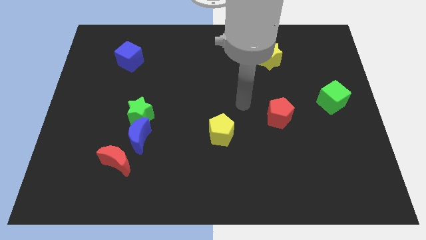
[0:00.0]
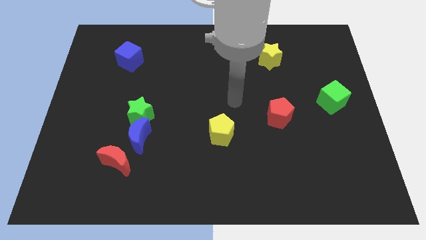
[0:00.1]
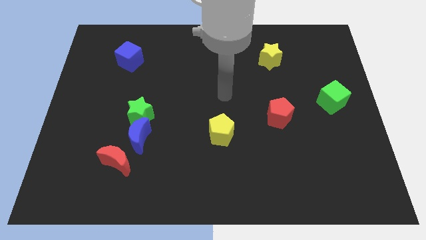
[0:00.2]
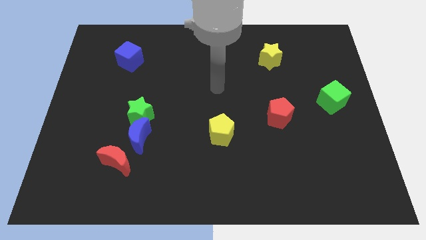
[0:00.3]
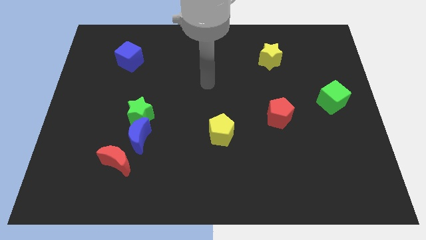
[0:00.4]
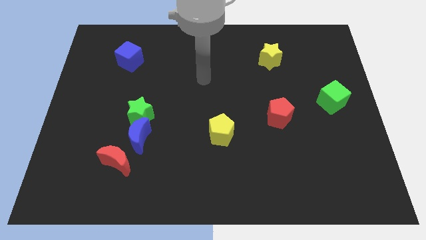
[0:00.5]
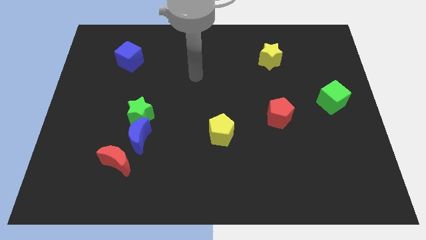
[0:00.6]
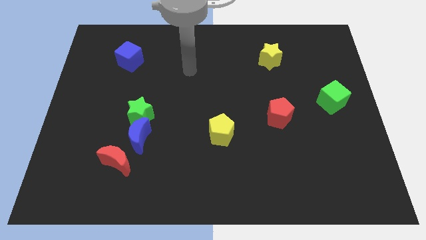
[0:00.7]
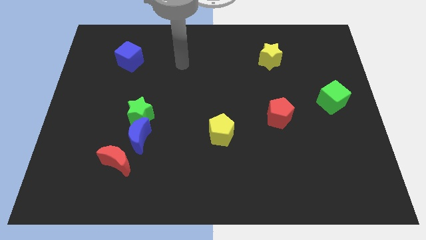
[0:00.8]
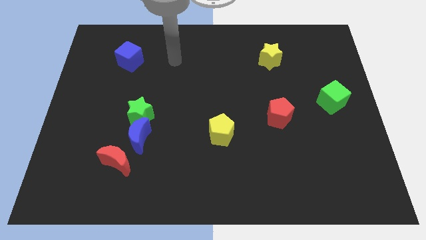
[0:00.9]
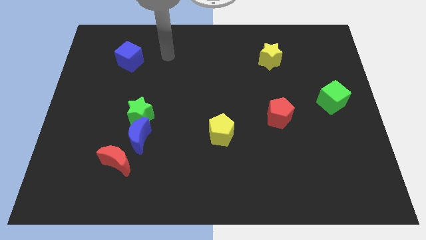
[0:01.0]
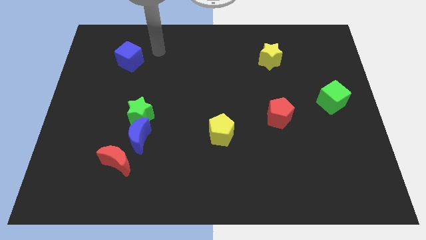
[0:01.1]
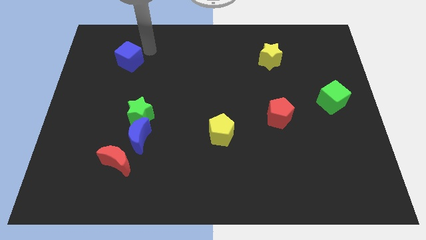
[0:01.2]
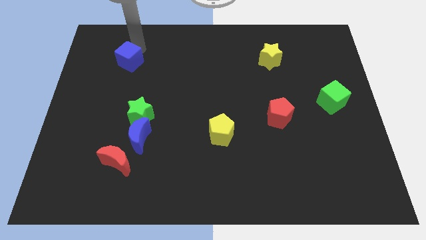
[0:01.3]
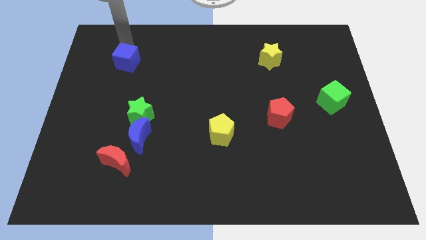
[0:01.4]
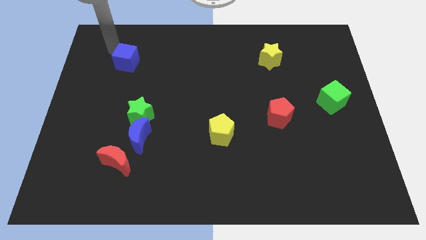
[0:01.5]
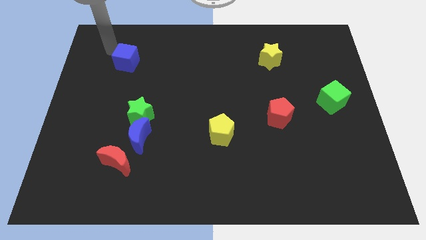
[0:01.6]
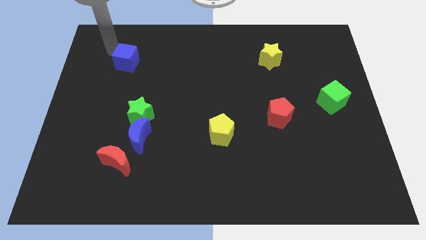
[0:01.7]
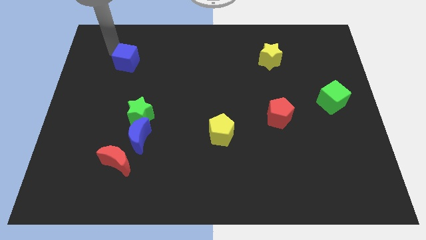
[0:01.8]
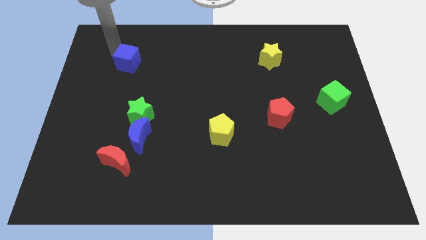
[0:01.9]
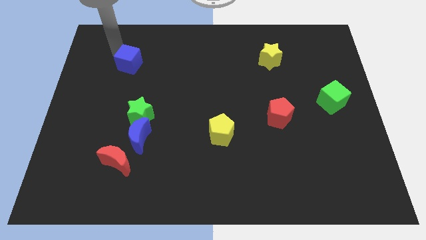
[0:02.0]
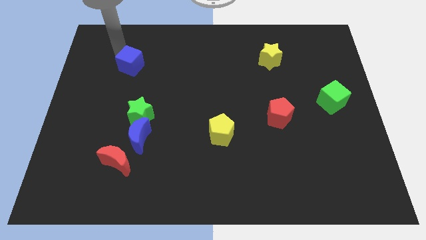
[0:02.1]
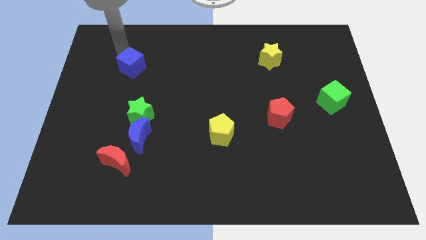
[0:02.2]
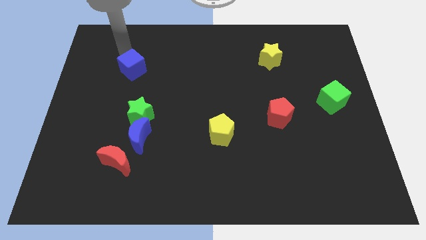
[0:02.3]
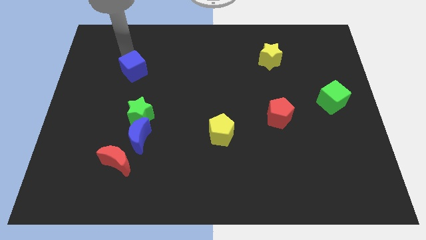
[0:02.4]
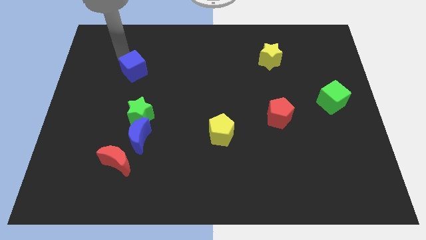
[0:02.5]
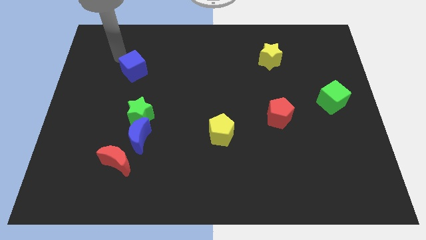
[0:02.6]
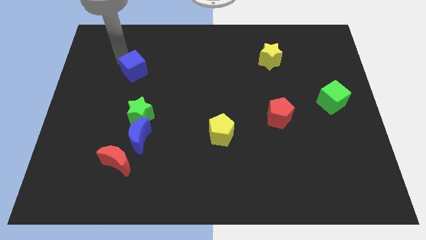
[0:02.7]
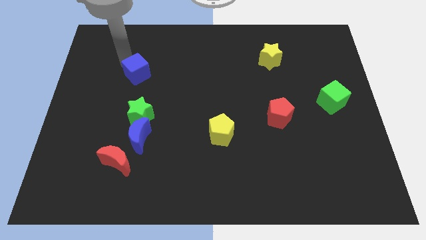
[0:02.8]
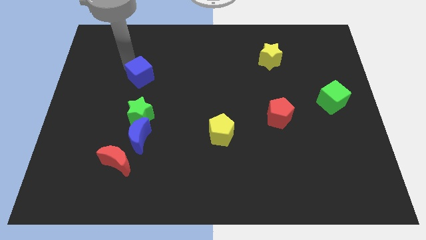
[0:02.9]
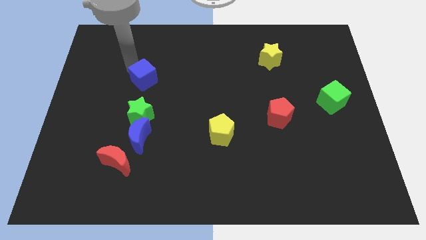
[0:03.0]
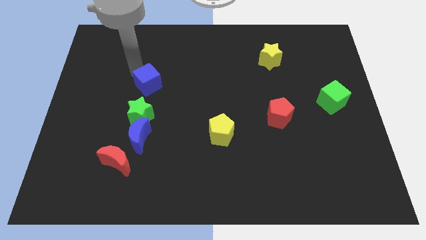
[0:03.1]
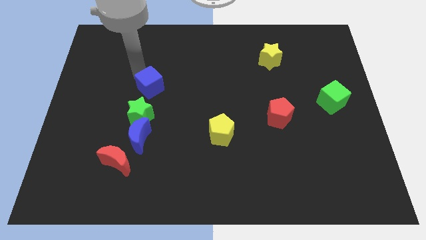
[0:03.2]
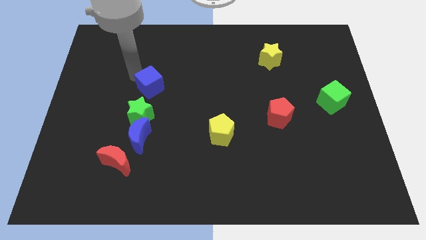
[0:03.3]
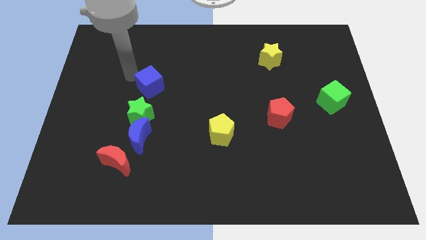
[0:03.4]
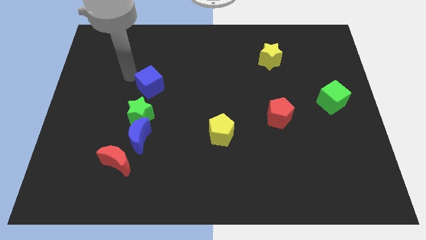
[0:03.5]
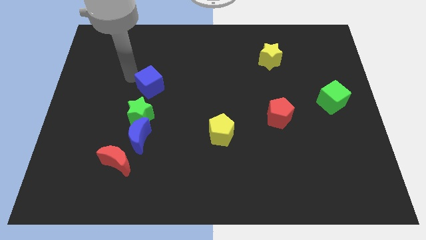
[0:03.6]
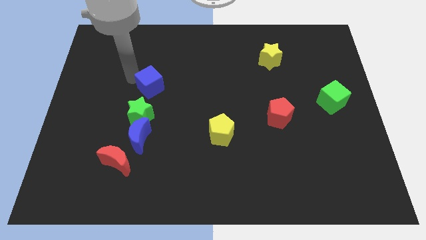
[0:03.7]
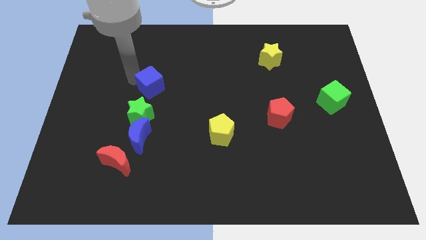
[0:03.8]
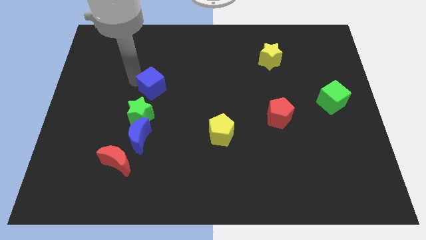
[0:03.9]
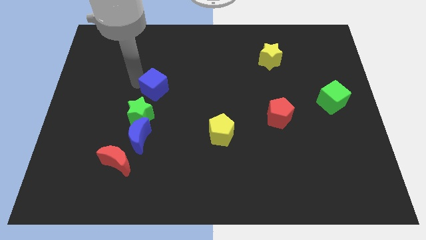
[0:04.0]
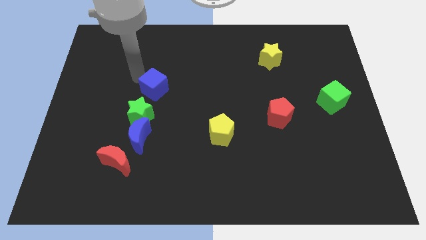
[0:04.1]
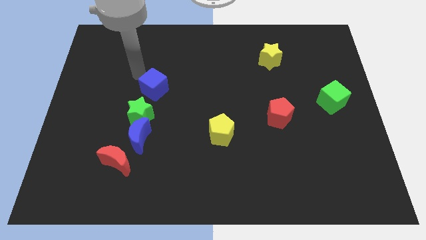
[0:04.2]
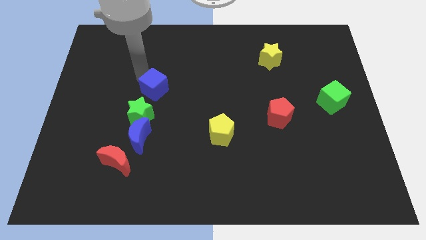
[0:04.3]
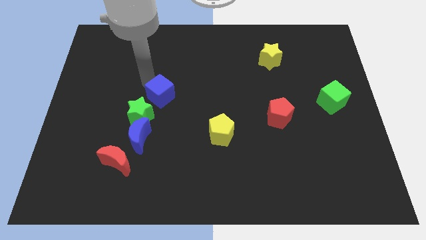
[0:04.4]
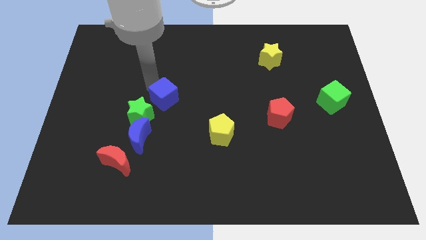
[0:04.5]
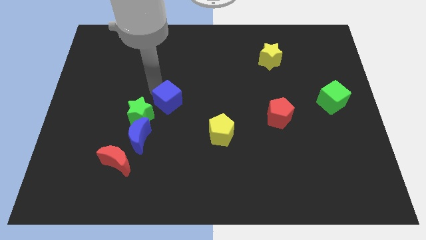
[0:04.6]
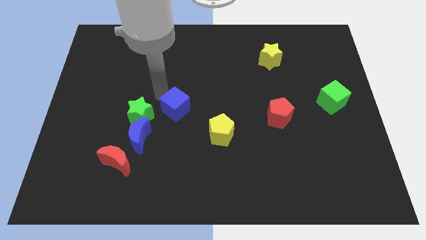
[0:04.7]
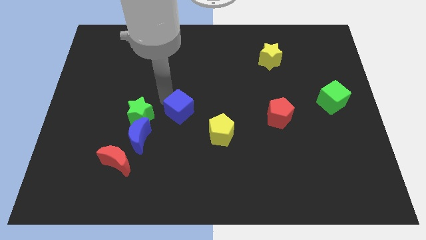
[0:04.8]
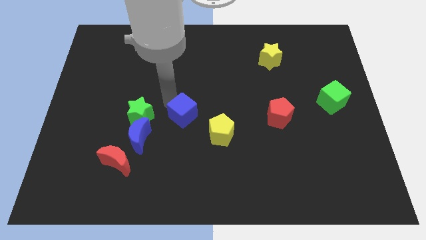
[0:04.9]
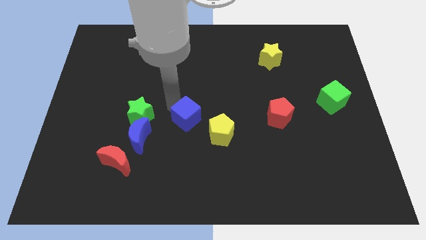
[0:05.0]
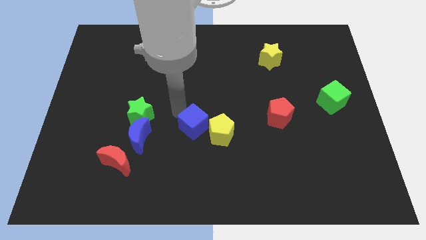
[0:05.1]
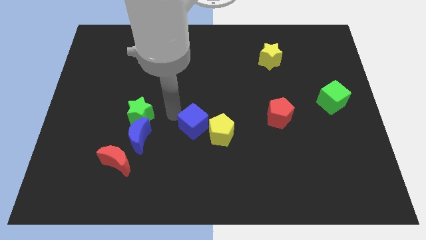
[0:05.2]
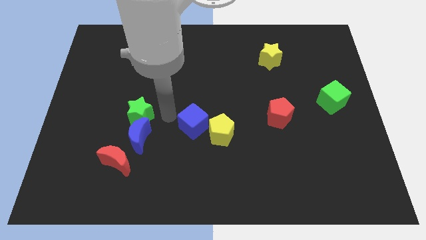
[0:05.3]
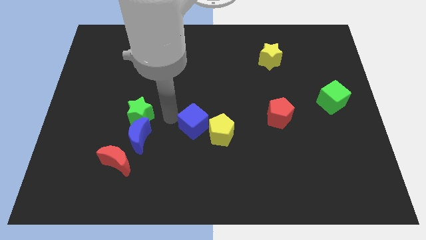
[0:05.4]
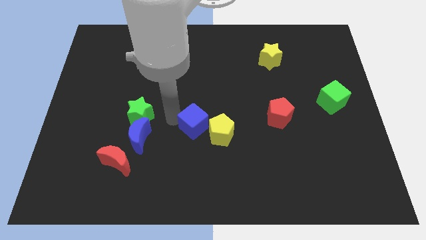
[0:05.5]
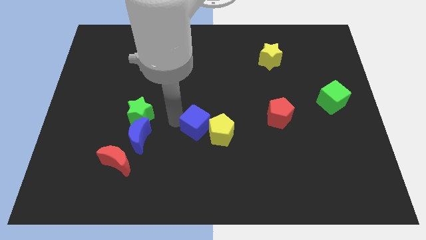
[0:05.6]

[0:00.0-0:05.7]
slide the blue cube close to the yellow pentagon
